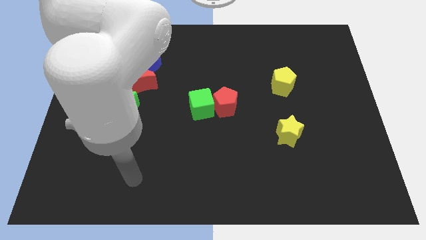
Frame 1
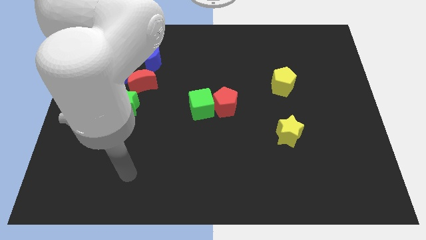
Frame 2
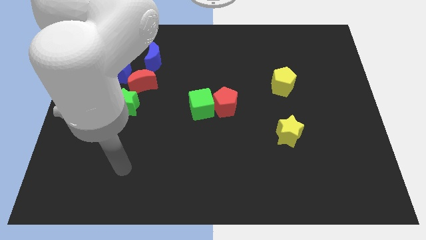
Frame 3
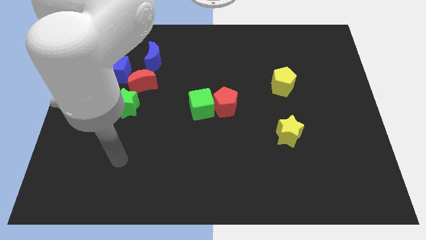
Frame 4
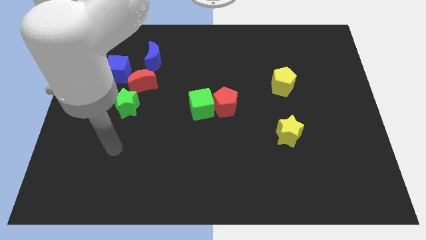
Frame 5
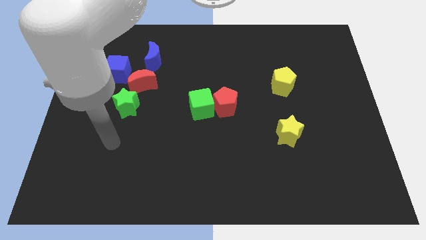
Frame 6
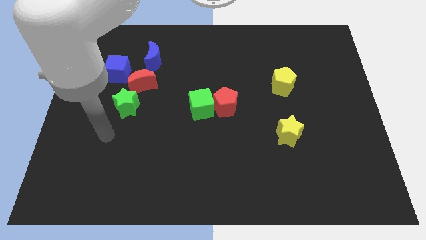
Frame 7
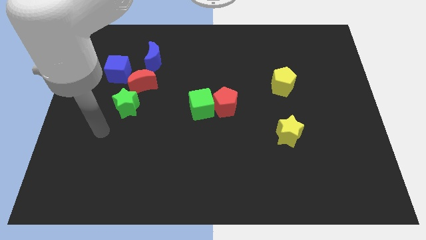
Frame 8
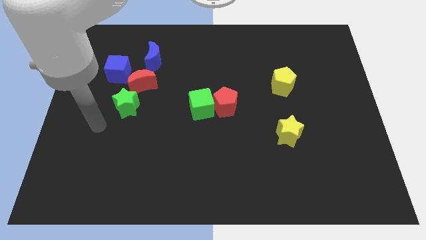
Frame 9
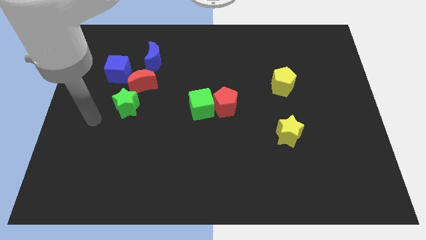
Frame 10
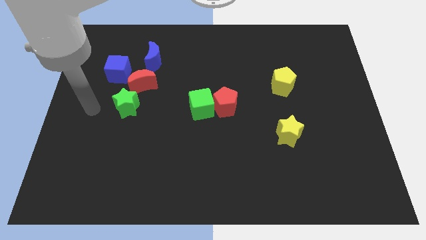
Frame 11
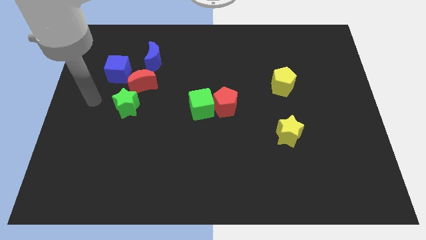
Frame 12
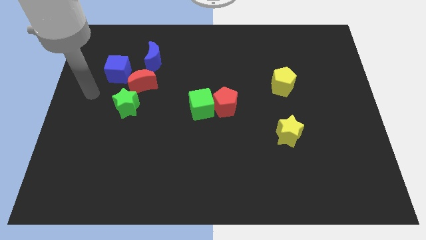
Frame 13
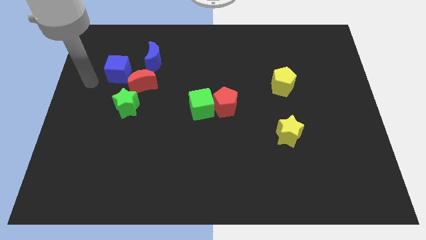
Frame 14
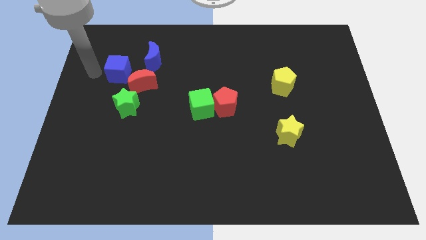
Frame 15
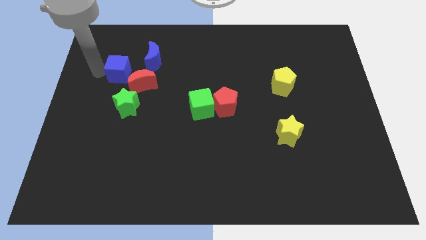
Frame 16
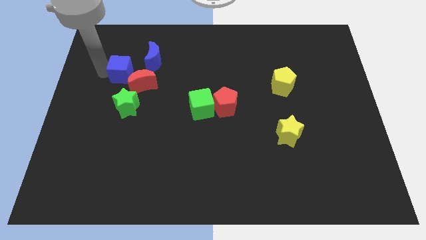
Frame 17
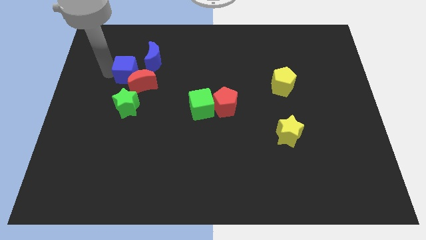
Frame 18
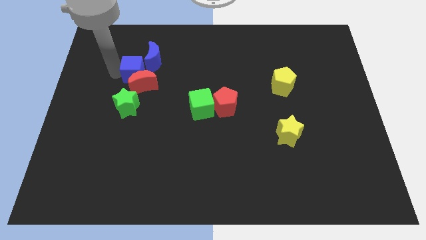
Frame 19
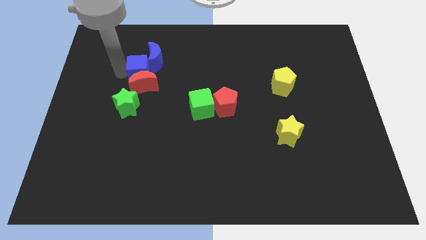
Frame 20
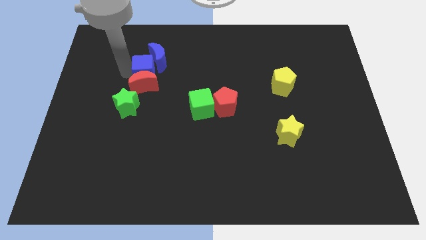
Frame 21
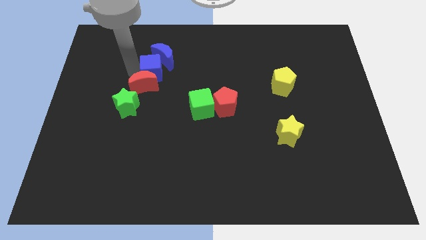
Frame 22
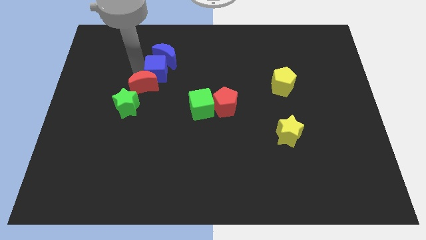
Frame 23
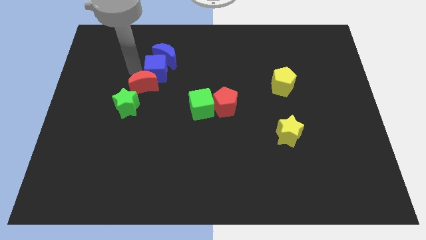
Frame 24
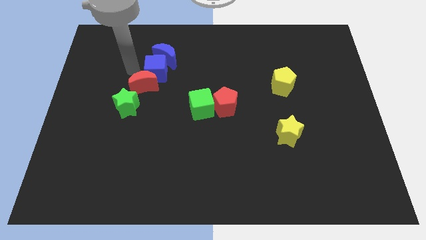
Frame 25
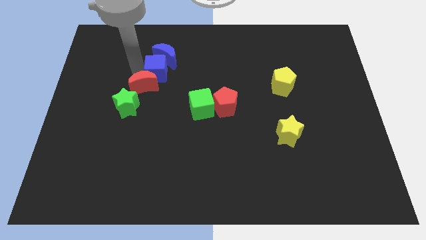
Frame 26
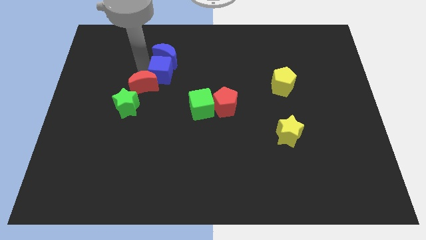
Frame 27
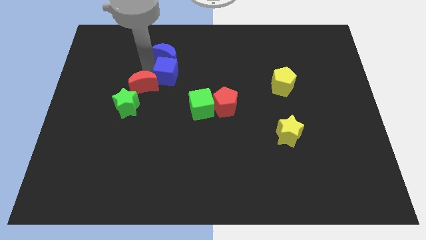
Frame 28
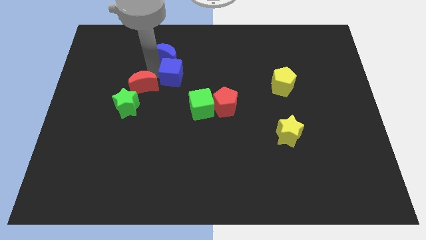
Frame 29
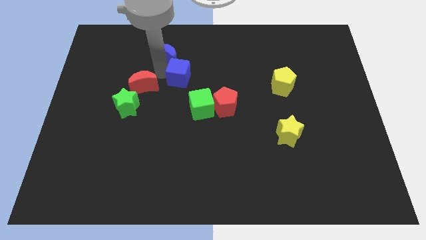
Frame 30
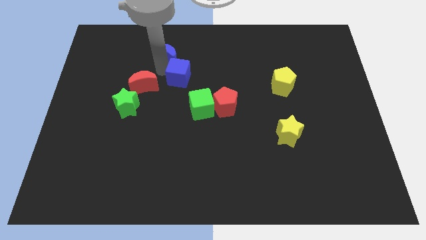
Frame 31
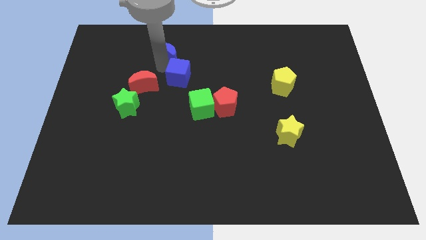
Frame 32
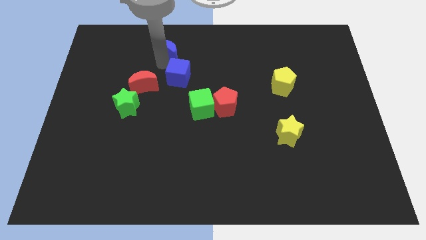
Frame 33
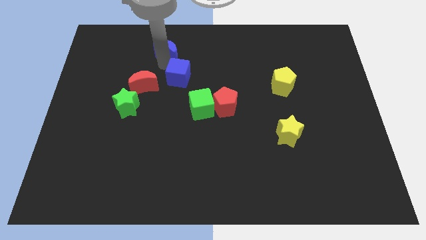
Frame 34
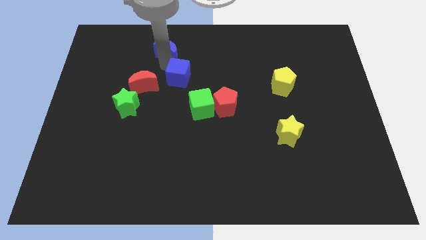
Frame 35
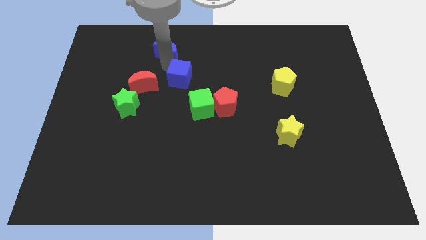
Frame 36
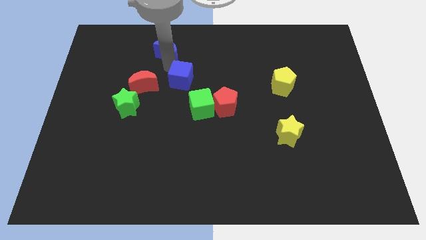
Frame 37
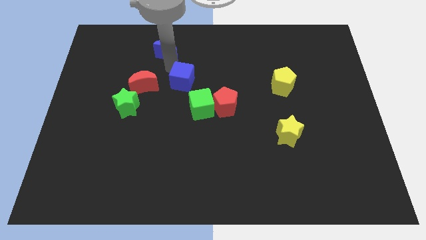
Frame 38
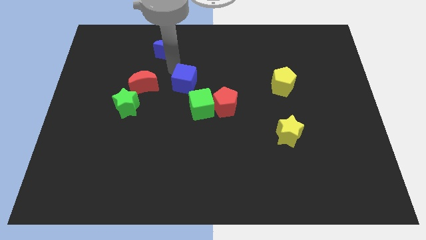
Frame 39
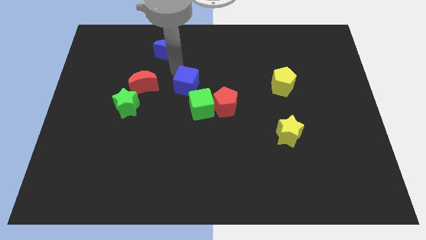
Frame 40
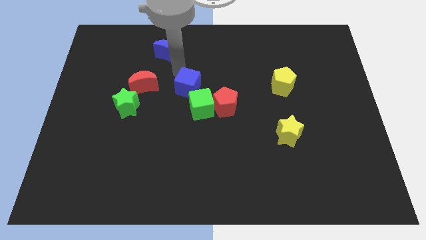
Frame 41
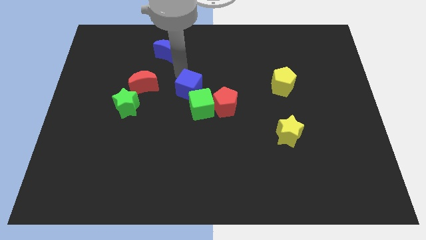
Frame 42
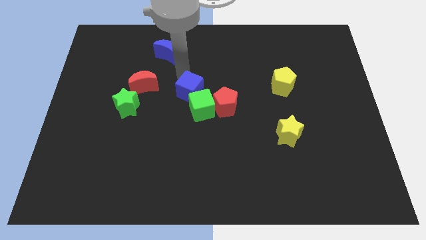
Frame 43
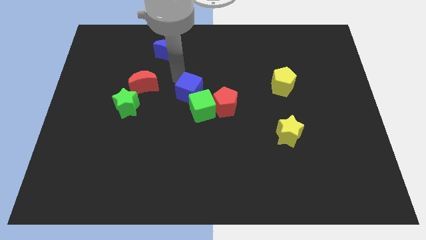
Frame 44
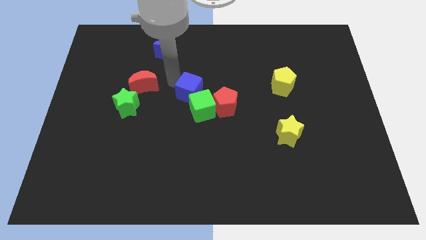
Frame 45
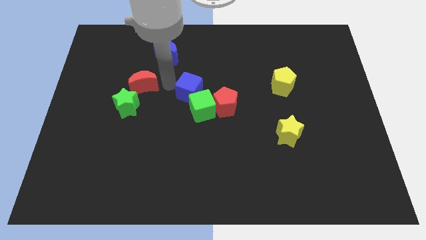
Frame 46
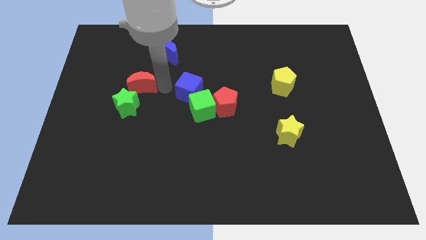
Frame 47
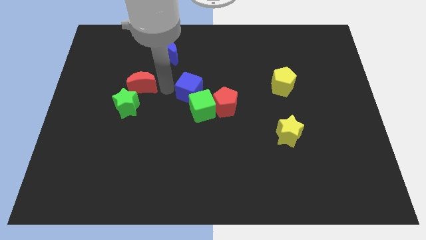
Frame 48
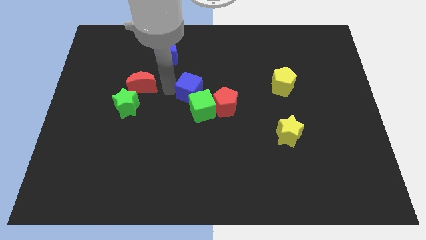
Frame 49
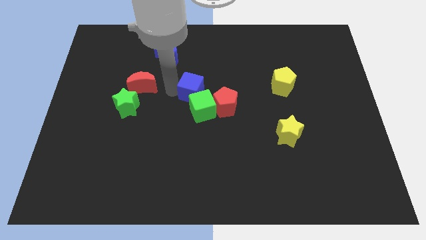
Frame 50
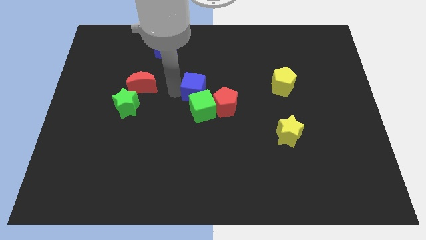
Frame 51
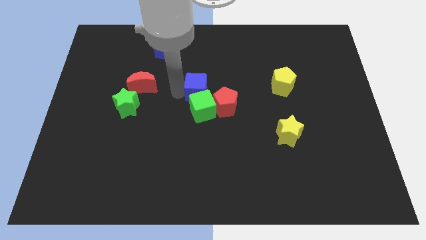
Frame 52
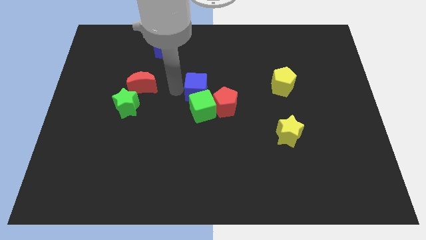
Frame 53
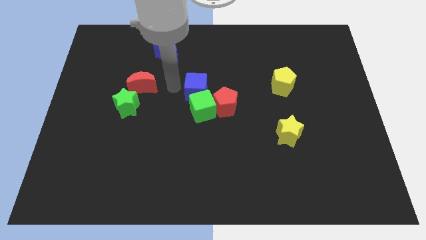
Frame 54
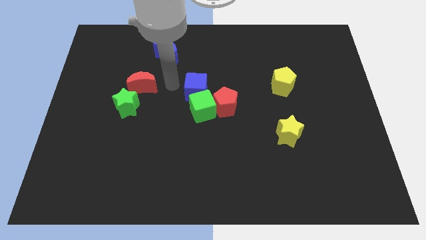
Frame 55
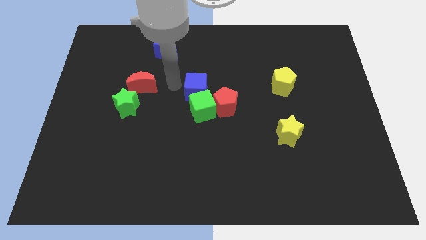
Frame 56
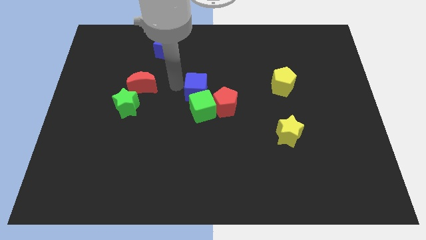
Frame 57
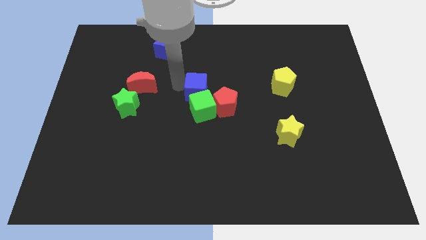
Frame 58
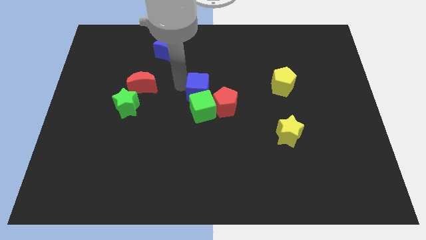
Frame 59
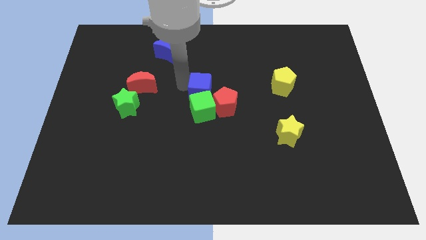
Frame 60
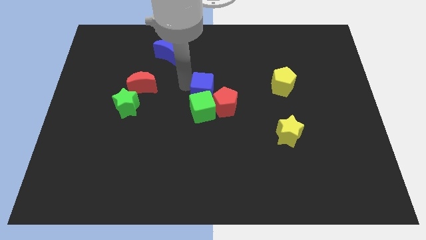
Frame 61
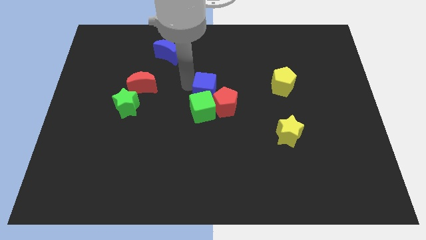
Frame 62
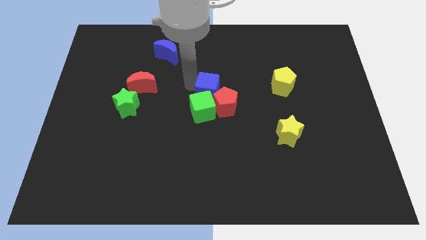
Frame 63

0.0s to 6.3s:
push the blue cube next to the red pentagon

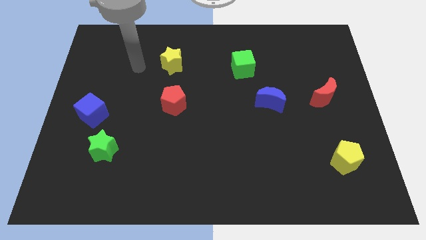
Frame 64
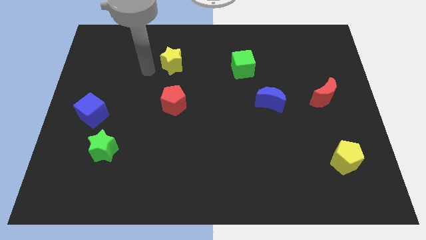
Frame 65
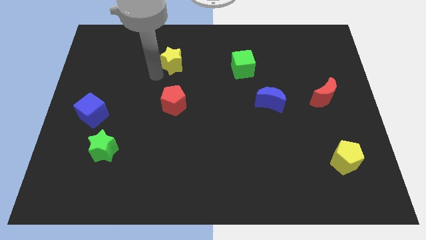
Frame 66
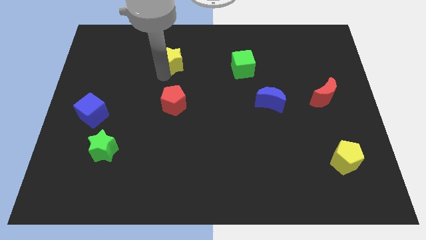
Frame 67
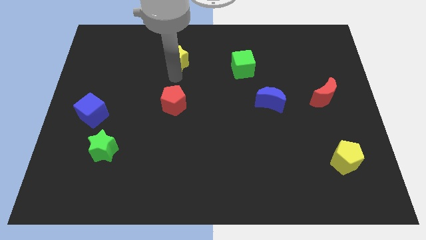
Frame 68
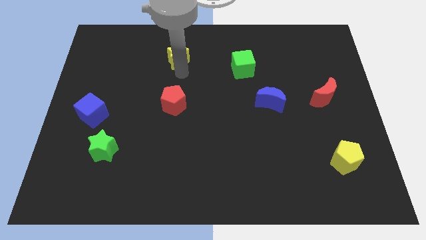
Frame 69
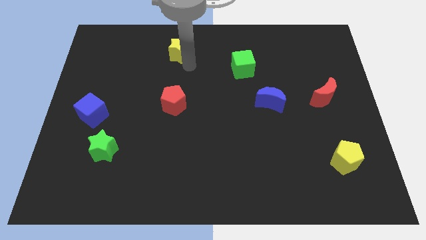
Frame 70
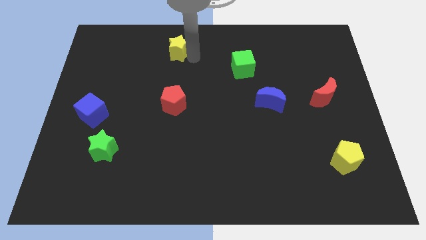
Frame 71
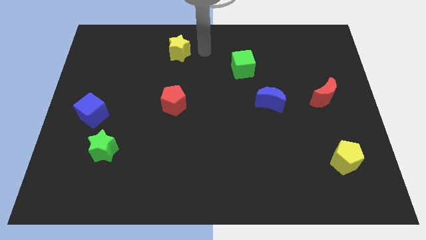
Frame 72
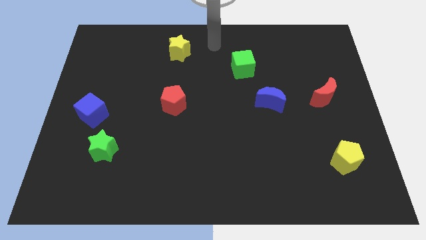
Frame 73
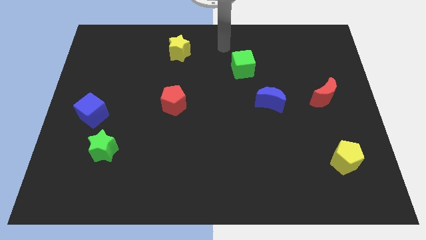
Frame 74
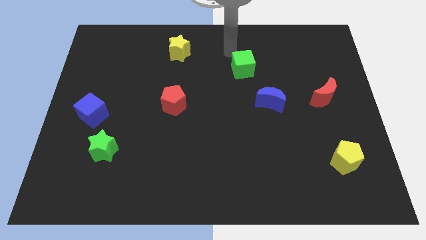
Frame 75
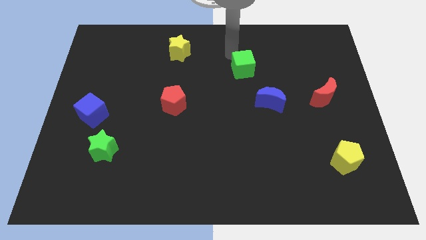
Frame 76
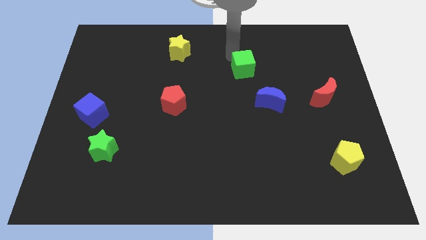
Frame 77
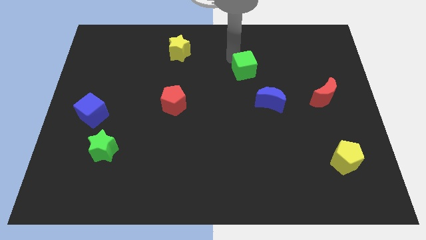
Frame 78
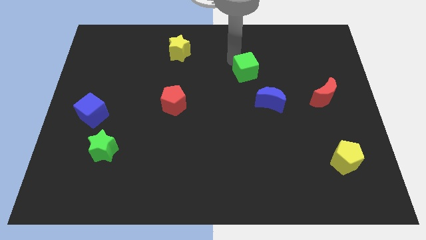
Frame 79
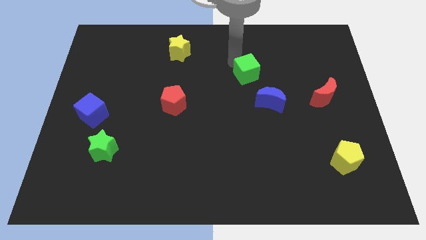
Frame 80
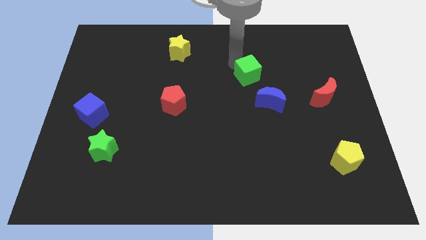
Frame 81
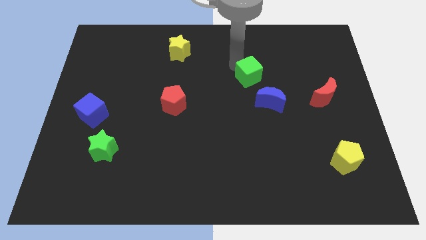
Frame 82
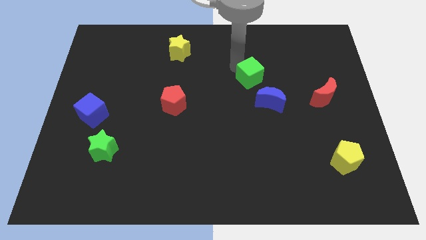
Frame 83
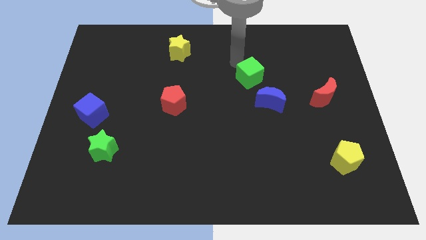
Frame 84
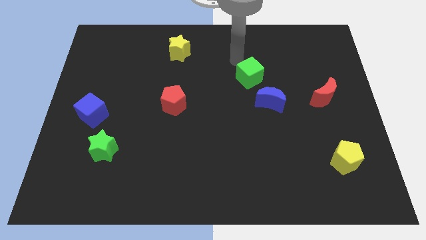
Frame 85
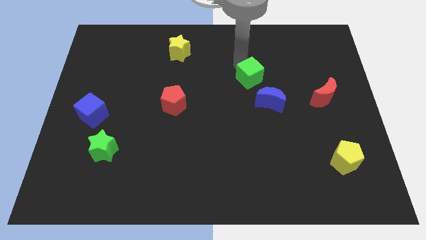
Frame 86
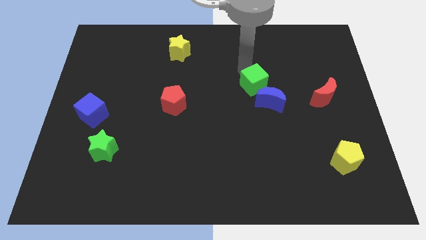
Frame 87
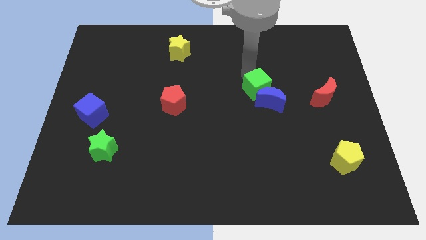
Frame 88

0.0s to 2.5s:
put the green cube next to the blue moon
